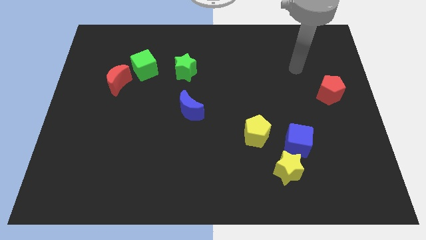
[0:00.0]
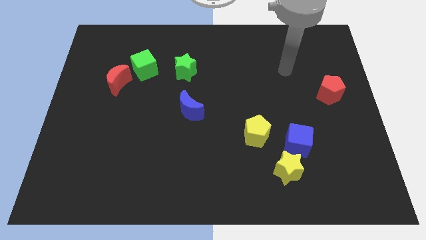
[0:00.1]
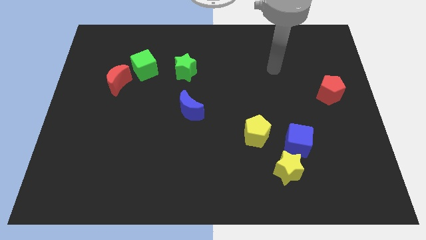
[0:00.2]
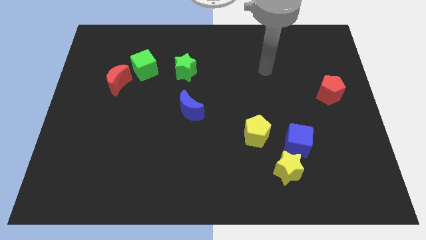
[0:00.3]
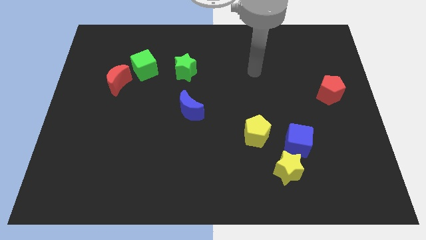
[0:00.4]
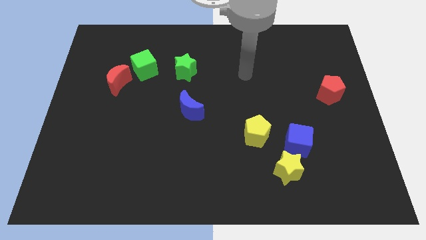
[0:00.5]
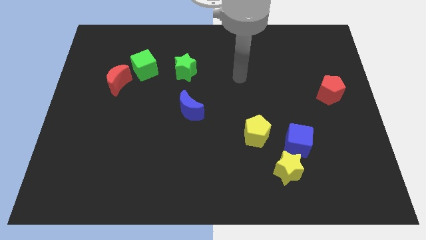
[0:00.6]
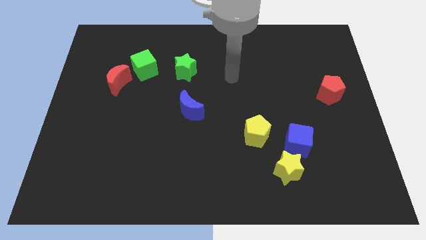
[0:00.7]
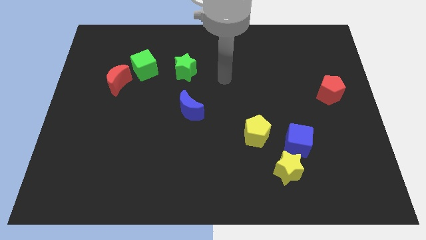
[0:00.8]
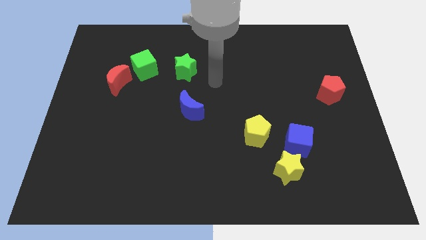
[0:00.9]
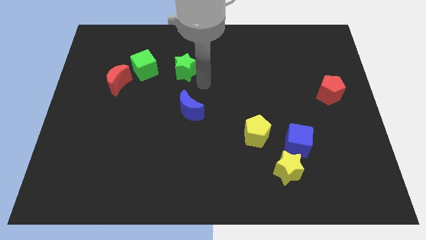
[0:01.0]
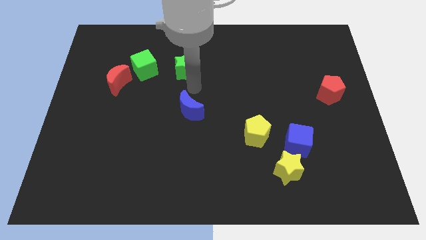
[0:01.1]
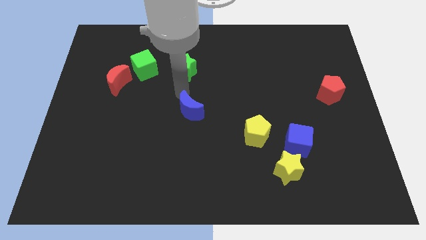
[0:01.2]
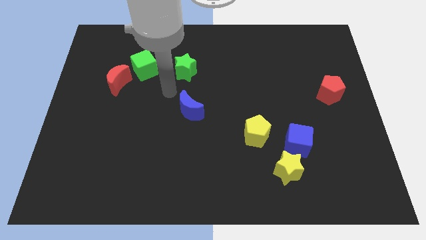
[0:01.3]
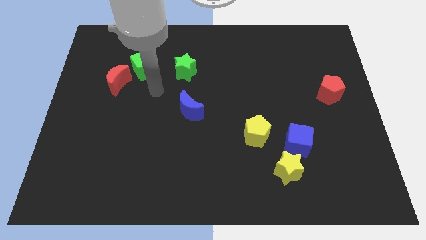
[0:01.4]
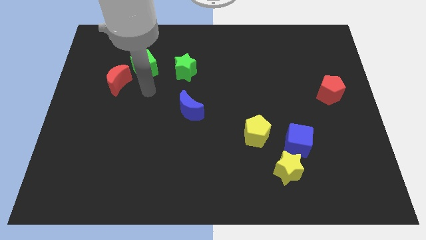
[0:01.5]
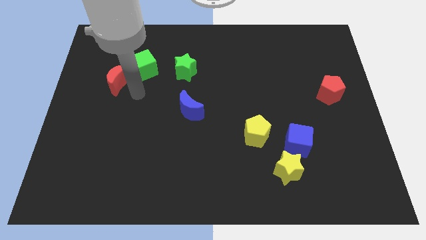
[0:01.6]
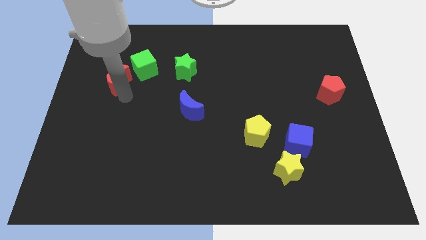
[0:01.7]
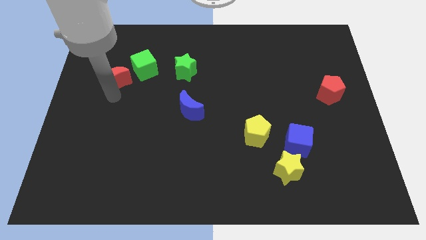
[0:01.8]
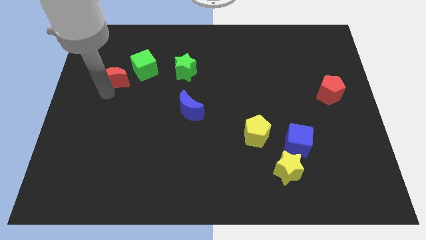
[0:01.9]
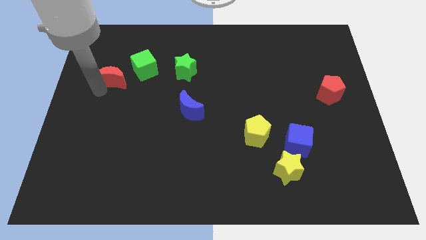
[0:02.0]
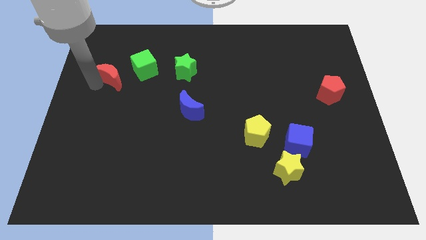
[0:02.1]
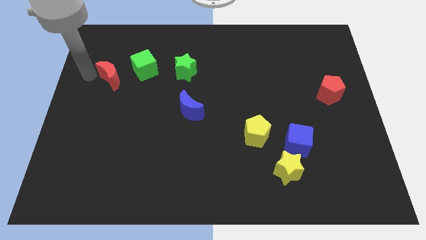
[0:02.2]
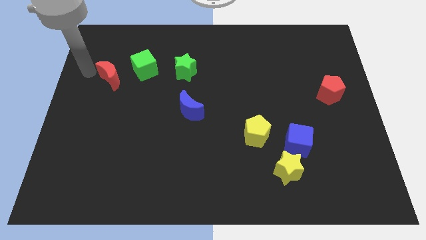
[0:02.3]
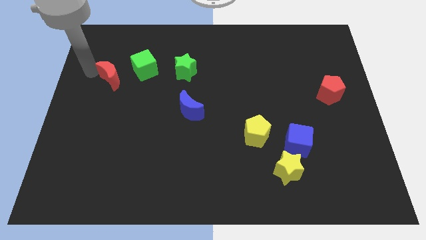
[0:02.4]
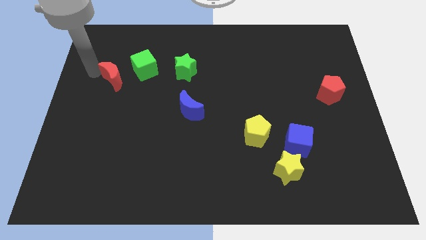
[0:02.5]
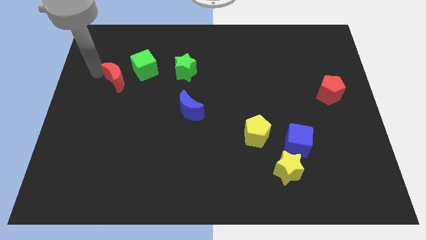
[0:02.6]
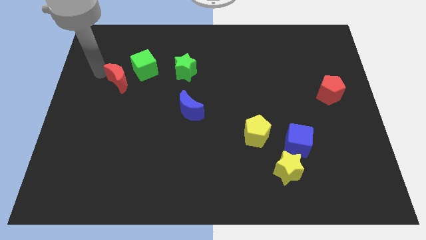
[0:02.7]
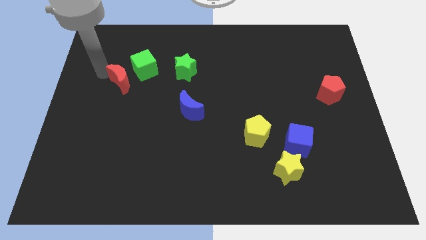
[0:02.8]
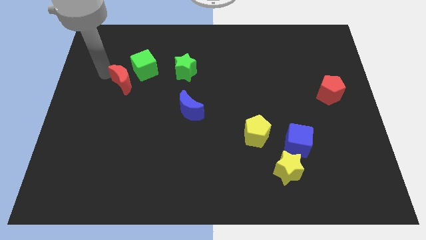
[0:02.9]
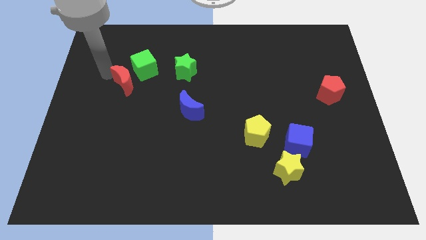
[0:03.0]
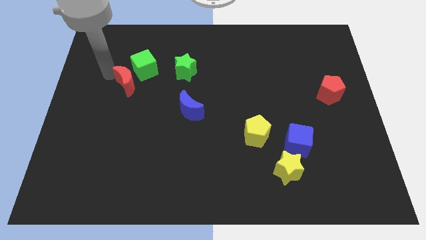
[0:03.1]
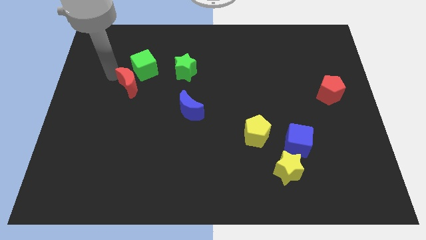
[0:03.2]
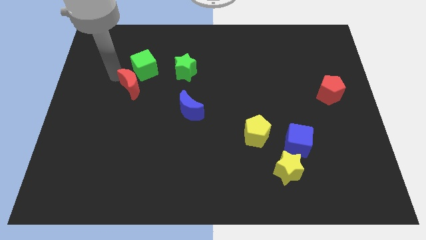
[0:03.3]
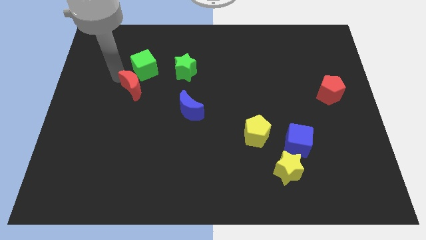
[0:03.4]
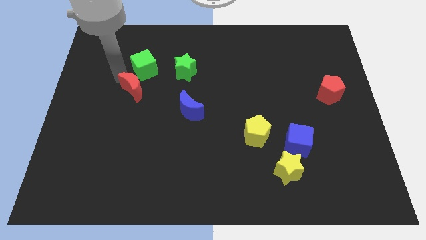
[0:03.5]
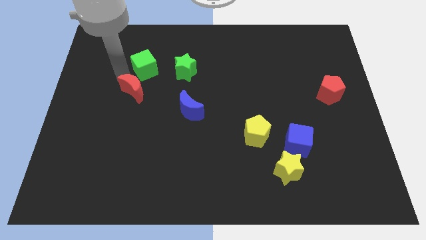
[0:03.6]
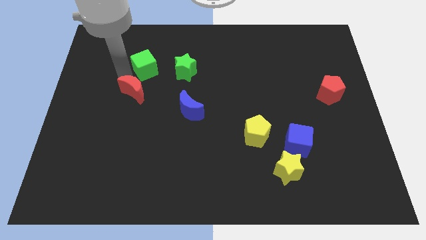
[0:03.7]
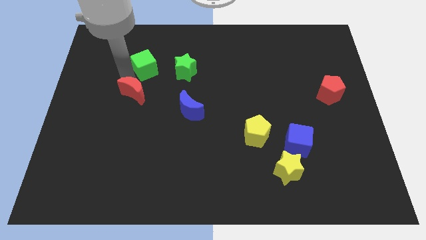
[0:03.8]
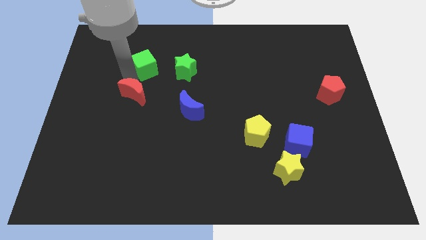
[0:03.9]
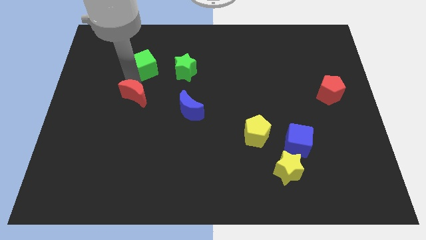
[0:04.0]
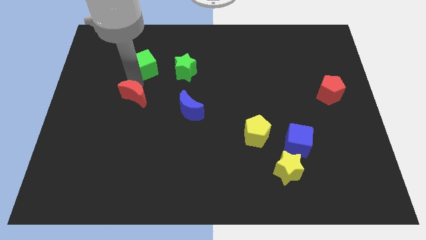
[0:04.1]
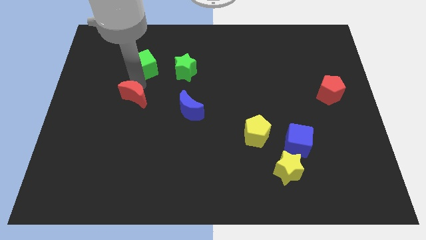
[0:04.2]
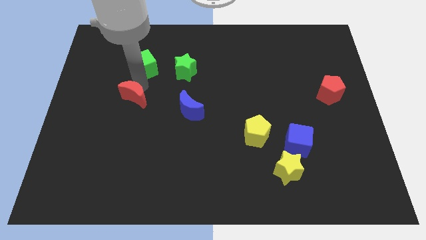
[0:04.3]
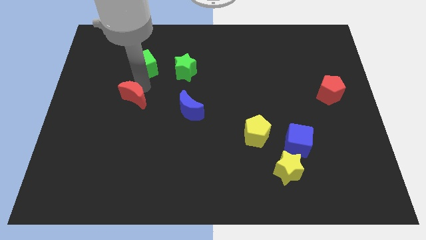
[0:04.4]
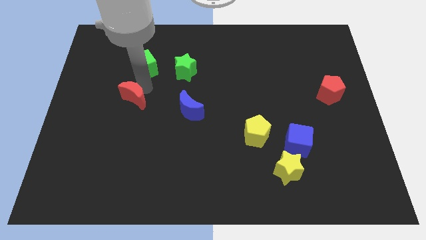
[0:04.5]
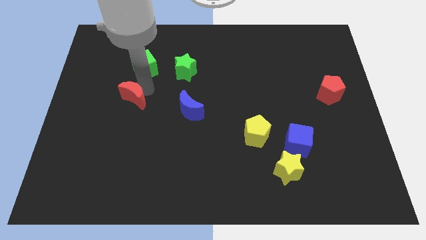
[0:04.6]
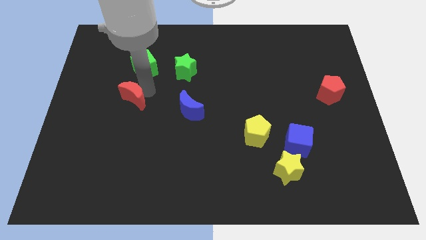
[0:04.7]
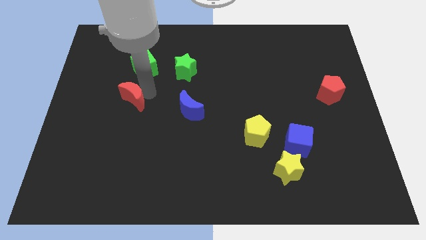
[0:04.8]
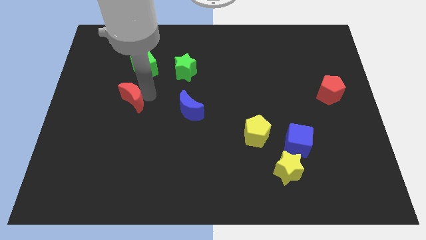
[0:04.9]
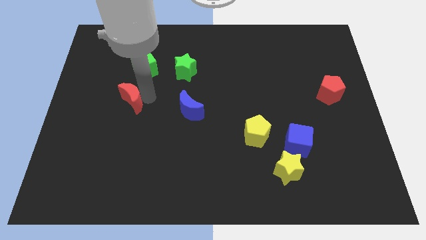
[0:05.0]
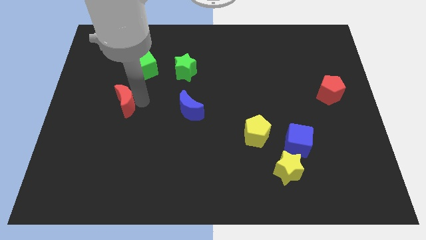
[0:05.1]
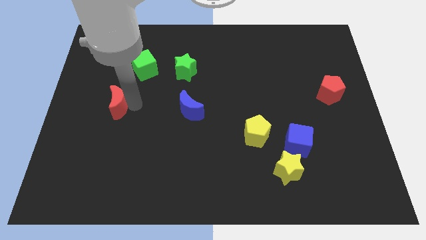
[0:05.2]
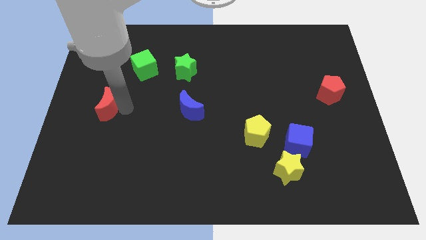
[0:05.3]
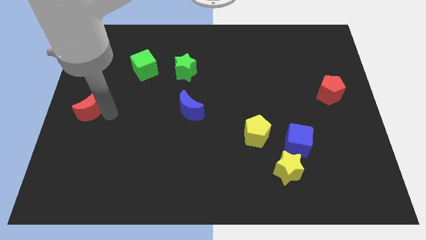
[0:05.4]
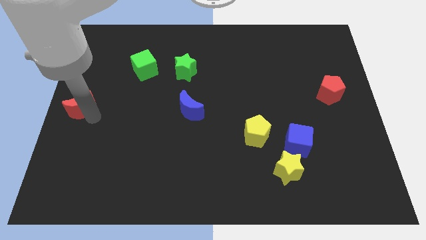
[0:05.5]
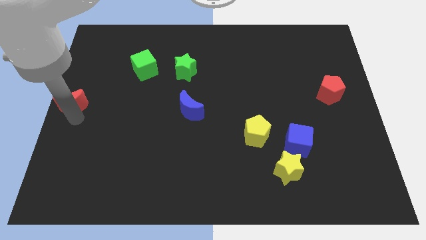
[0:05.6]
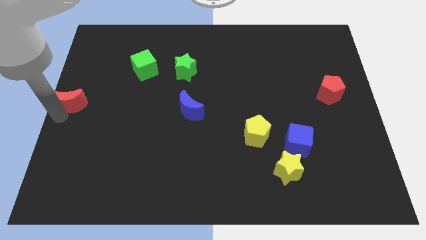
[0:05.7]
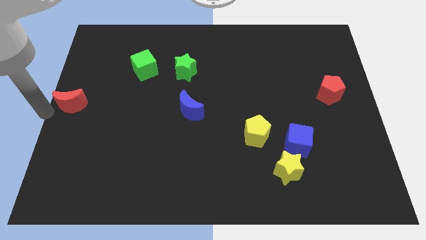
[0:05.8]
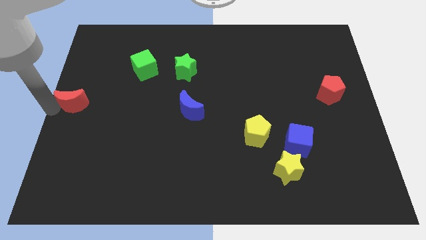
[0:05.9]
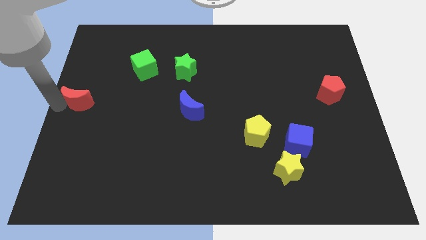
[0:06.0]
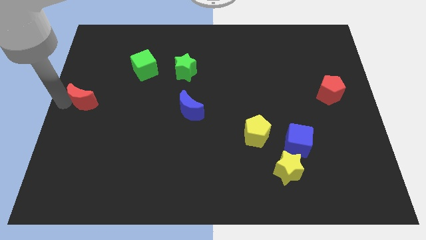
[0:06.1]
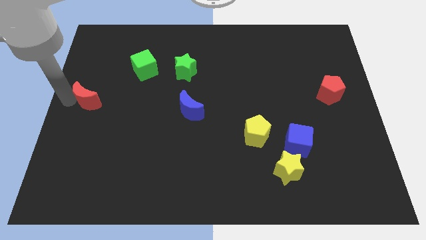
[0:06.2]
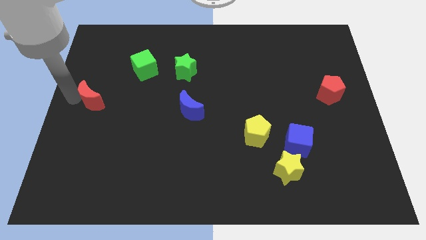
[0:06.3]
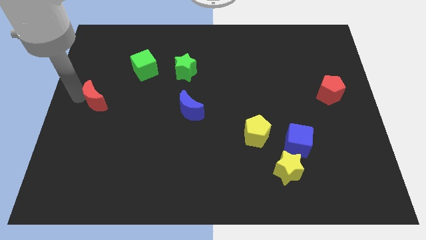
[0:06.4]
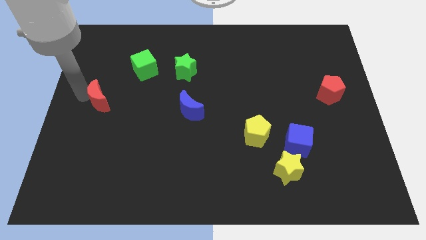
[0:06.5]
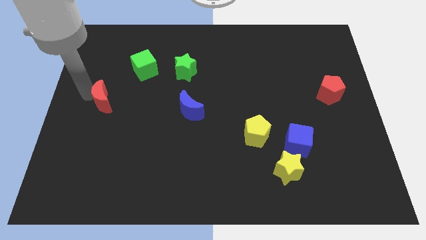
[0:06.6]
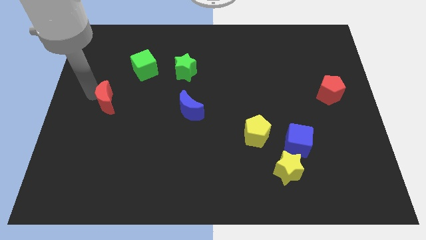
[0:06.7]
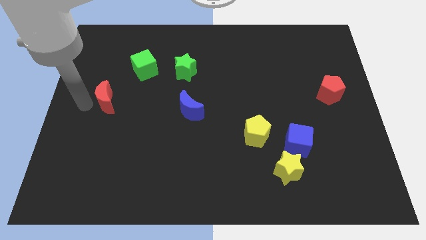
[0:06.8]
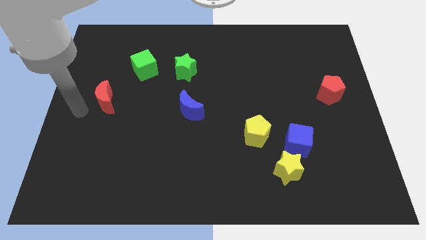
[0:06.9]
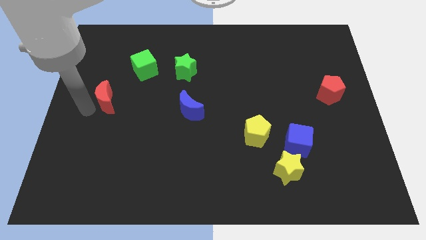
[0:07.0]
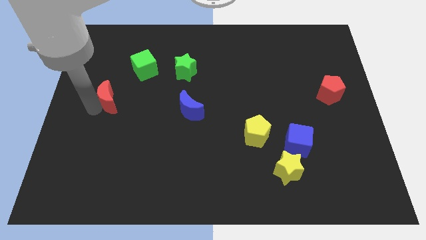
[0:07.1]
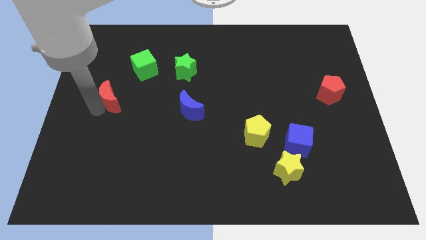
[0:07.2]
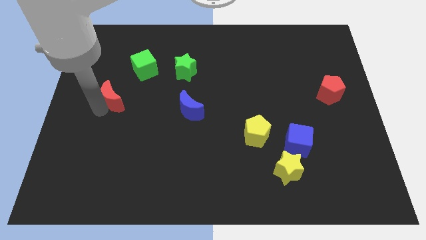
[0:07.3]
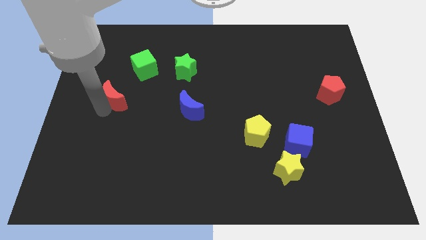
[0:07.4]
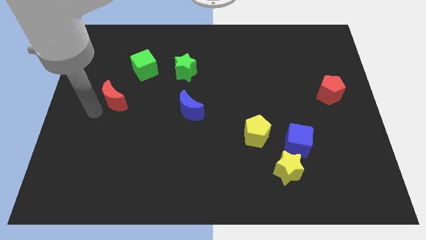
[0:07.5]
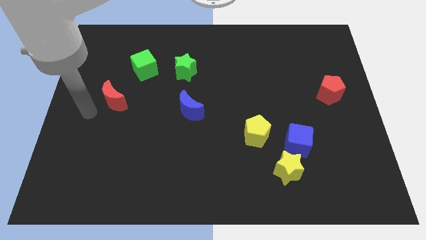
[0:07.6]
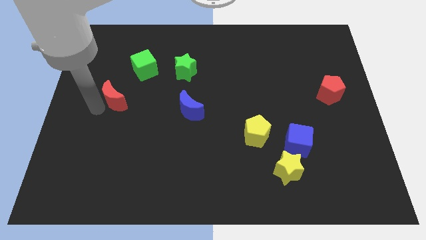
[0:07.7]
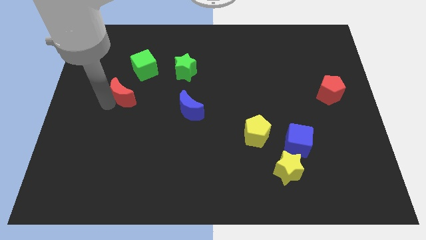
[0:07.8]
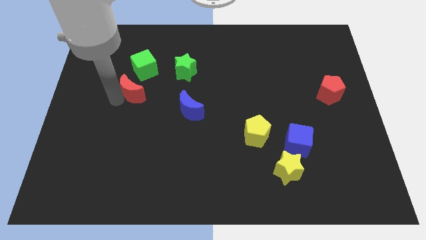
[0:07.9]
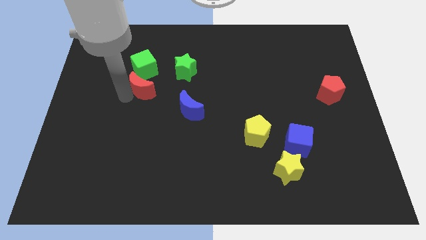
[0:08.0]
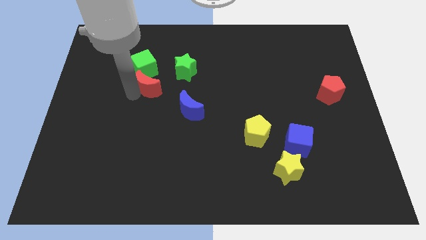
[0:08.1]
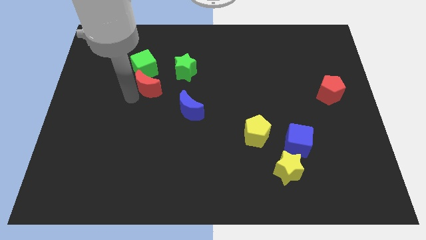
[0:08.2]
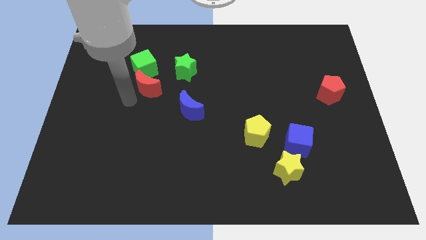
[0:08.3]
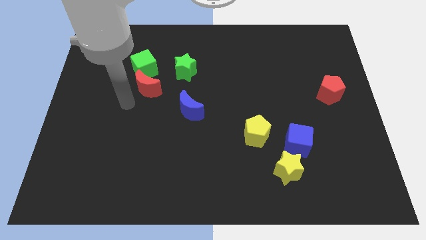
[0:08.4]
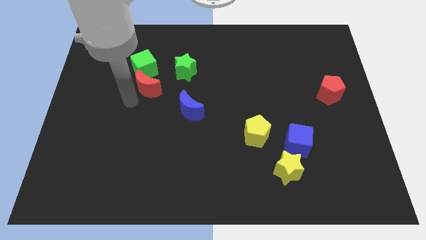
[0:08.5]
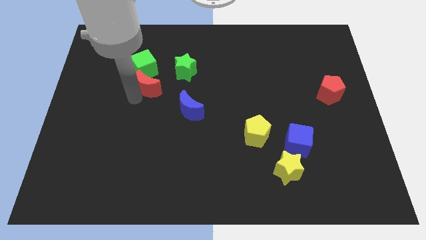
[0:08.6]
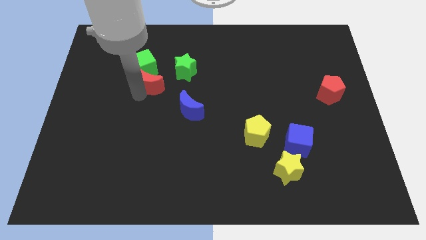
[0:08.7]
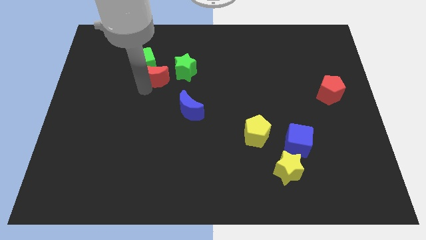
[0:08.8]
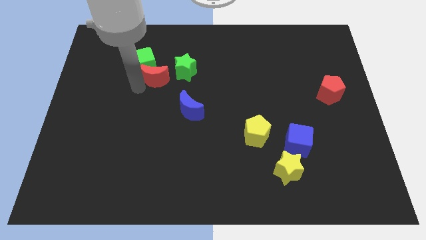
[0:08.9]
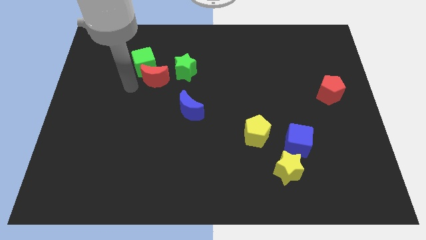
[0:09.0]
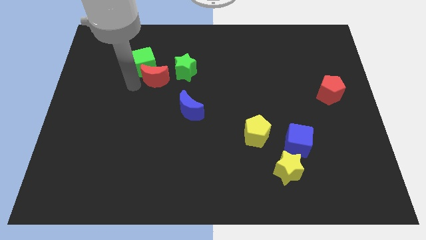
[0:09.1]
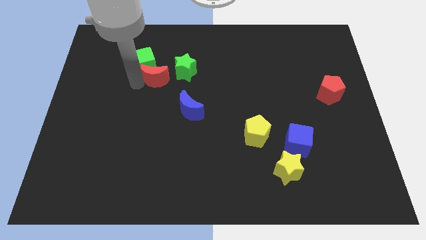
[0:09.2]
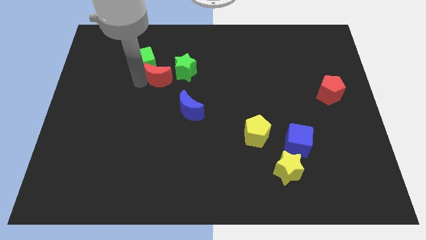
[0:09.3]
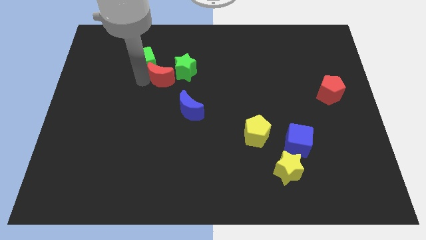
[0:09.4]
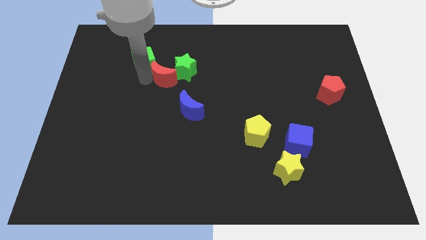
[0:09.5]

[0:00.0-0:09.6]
push the red moon towards the green star
